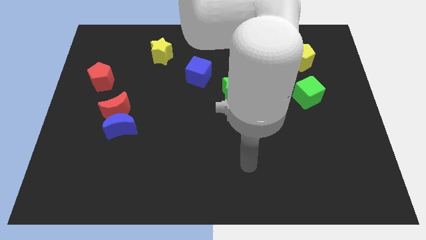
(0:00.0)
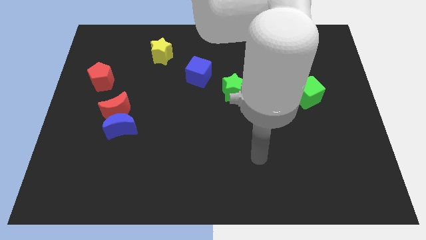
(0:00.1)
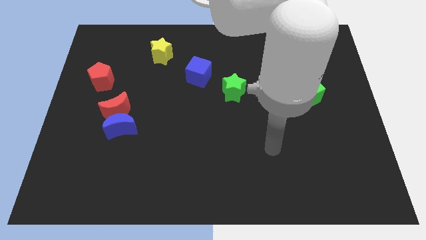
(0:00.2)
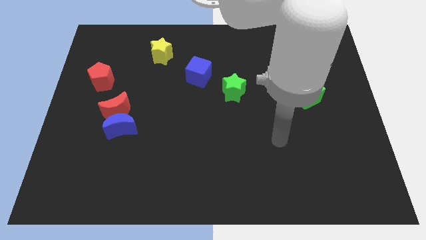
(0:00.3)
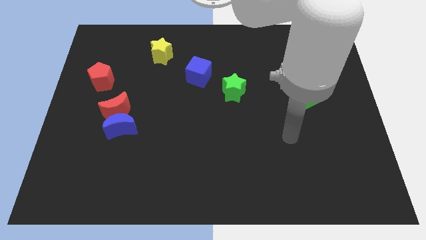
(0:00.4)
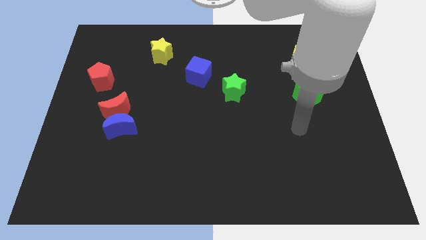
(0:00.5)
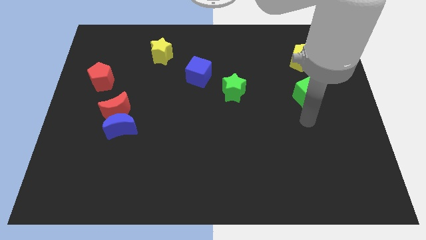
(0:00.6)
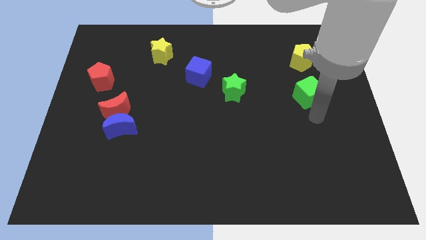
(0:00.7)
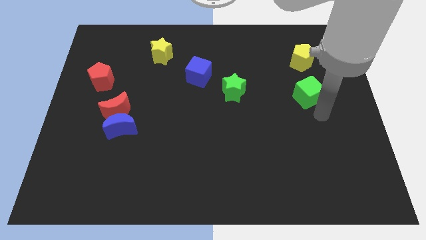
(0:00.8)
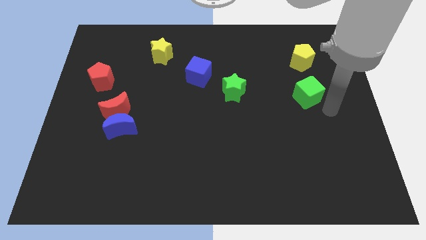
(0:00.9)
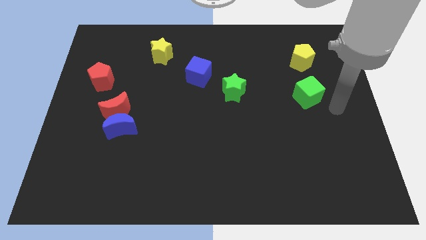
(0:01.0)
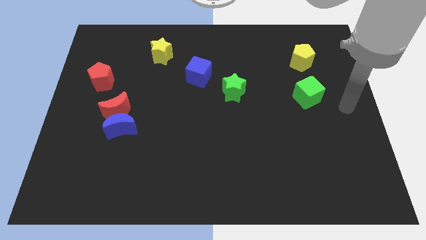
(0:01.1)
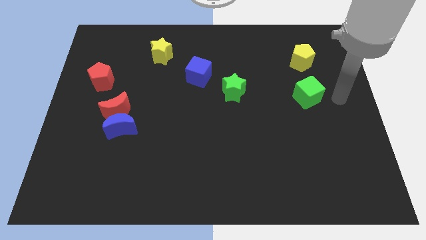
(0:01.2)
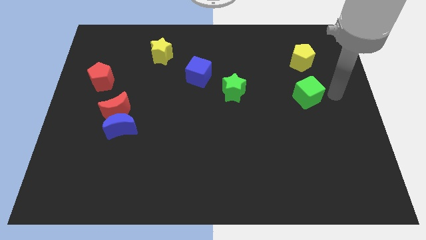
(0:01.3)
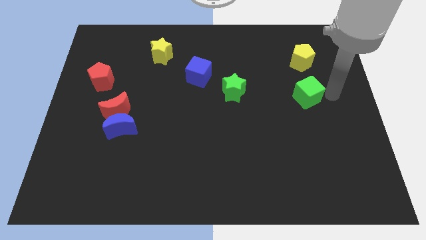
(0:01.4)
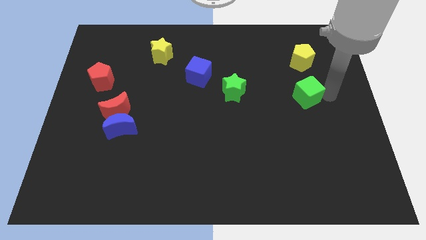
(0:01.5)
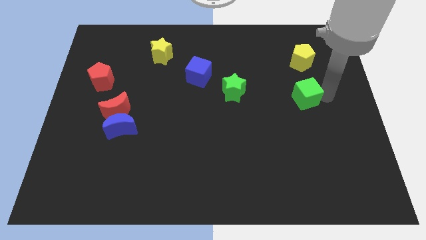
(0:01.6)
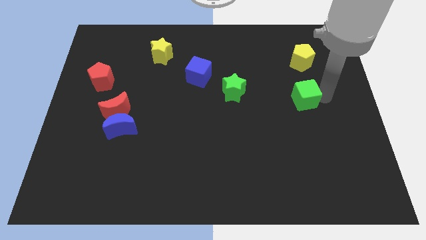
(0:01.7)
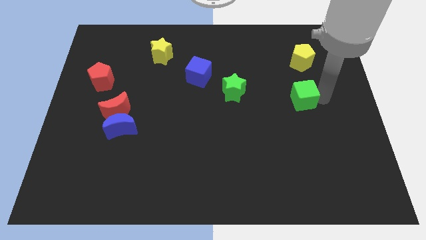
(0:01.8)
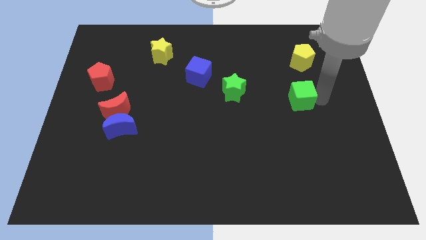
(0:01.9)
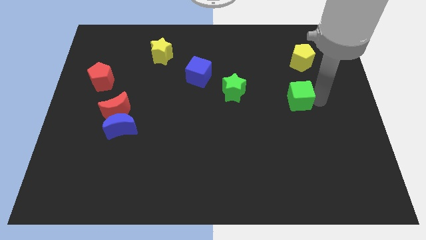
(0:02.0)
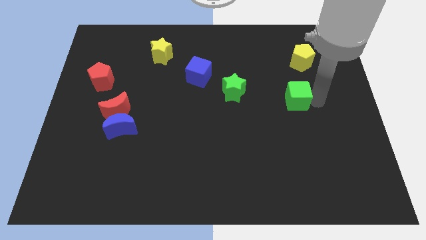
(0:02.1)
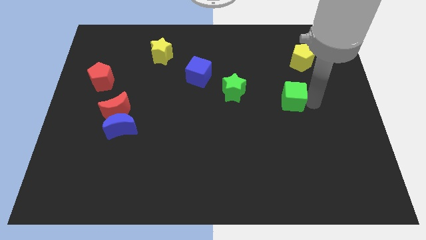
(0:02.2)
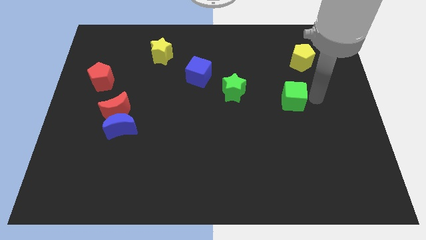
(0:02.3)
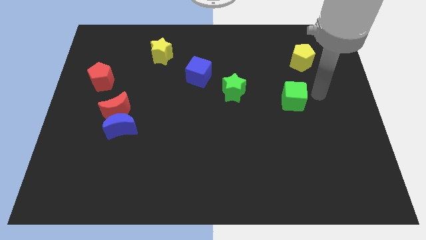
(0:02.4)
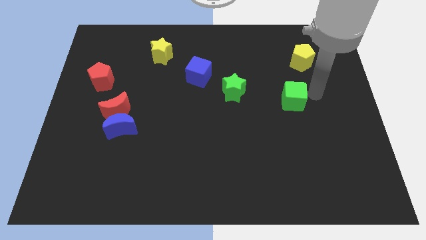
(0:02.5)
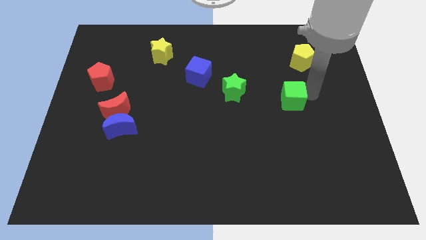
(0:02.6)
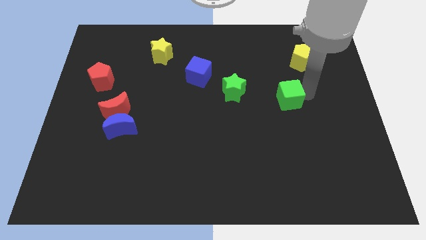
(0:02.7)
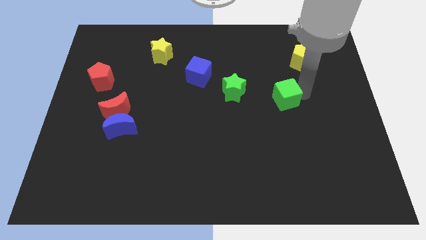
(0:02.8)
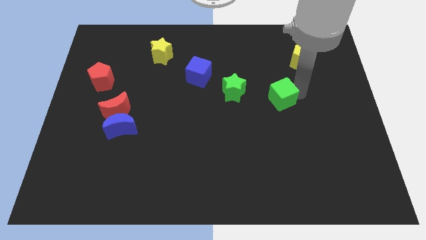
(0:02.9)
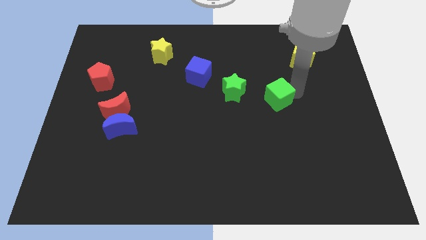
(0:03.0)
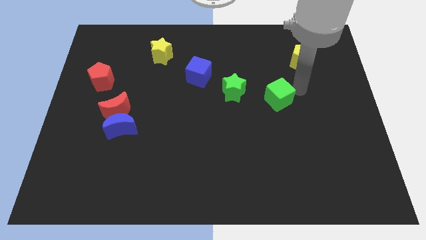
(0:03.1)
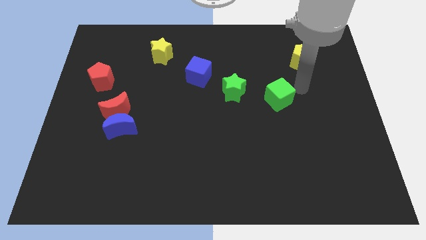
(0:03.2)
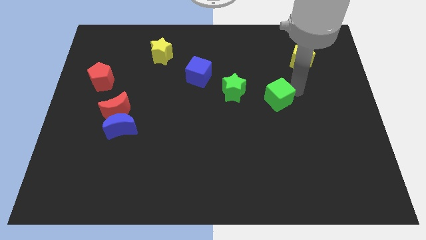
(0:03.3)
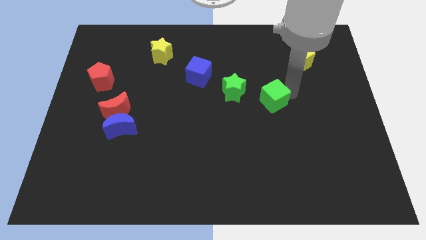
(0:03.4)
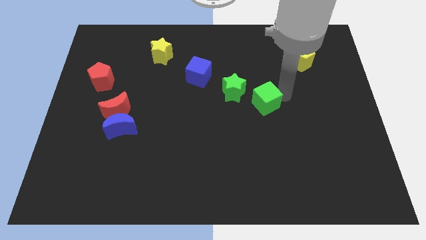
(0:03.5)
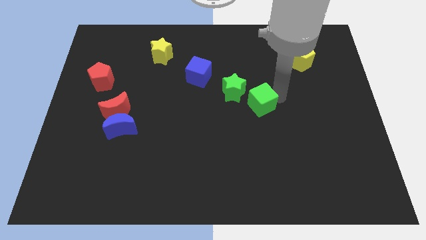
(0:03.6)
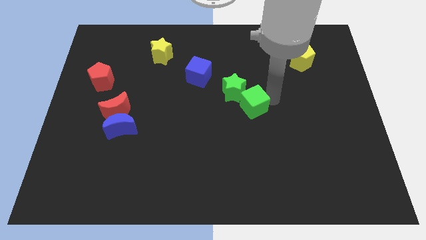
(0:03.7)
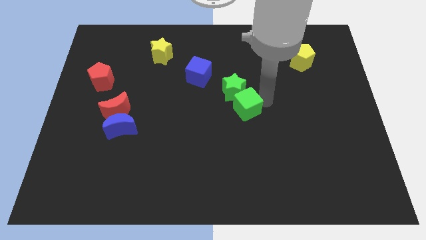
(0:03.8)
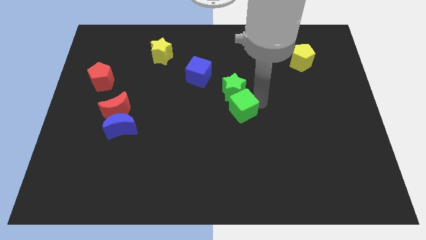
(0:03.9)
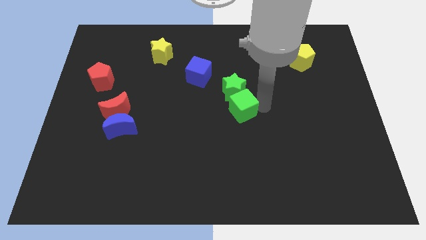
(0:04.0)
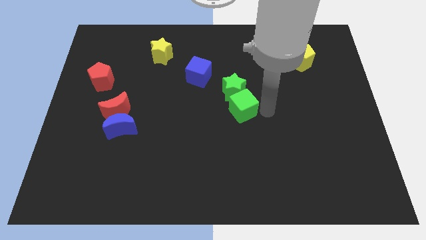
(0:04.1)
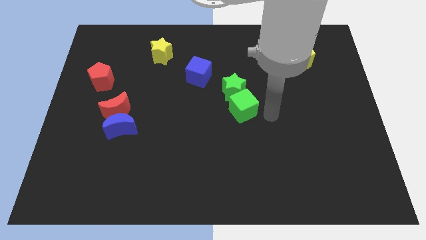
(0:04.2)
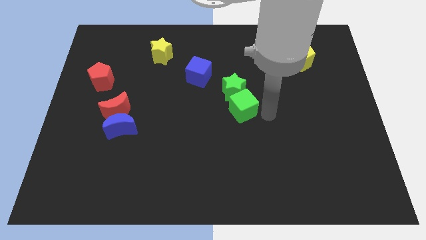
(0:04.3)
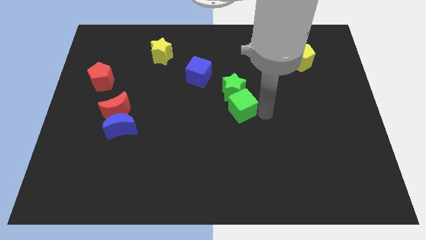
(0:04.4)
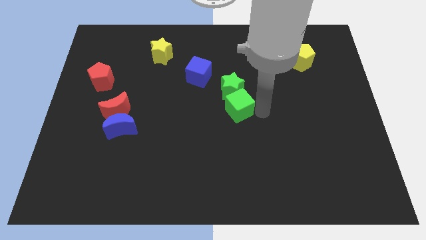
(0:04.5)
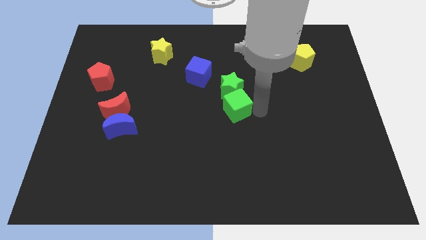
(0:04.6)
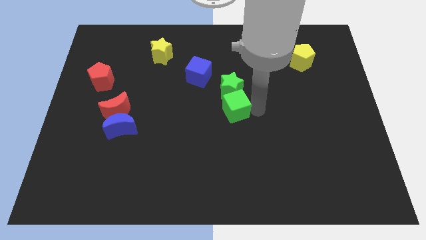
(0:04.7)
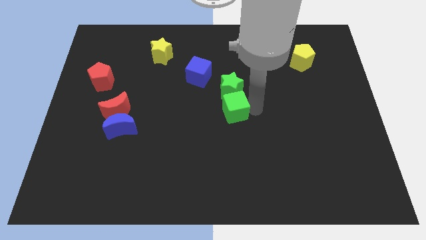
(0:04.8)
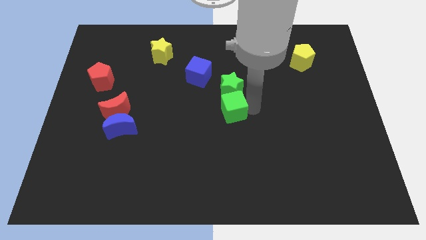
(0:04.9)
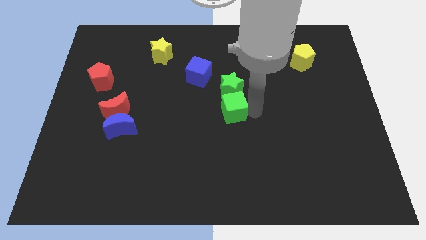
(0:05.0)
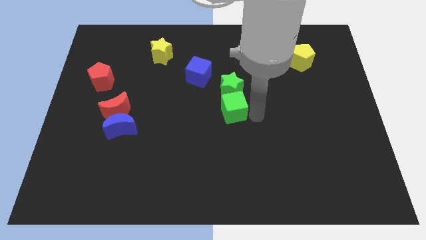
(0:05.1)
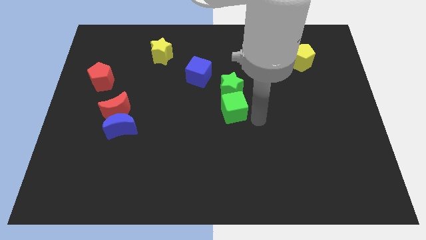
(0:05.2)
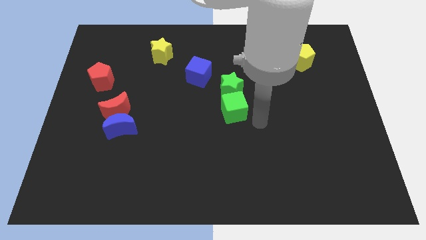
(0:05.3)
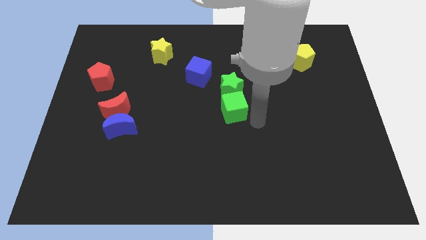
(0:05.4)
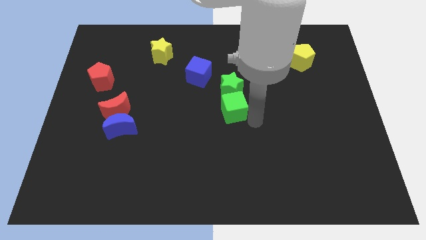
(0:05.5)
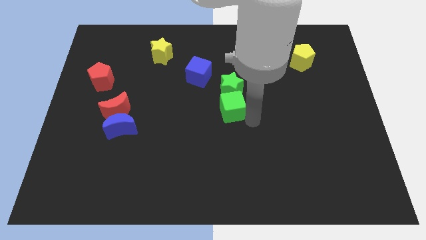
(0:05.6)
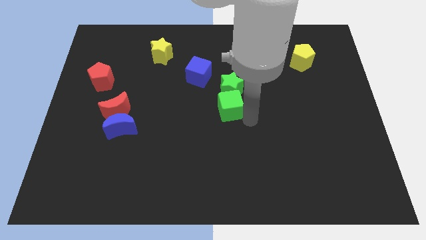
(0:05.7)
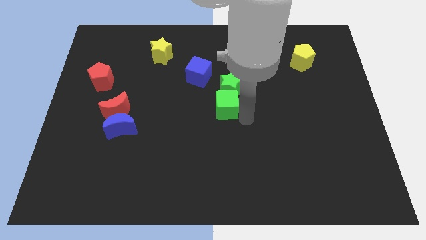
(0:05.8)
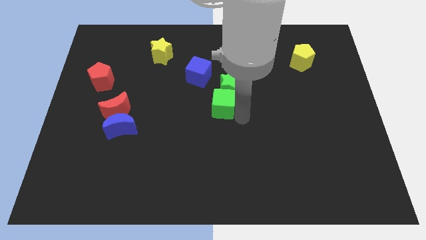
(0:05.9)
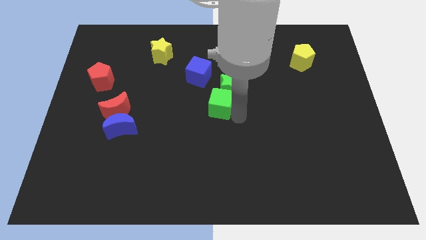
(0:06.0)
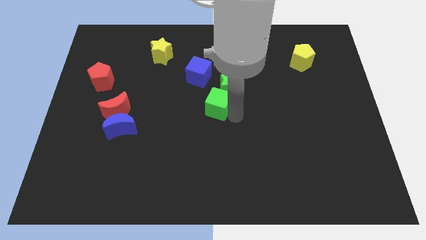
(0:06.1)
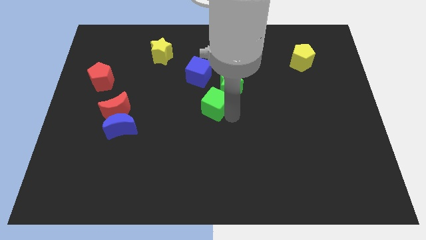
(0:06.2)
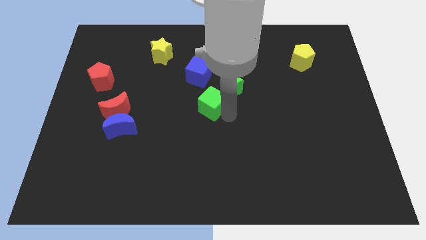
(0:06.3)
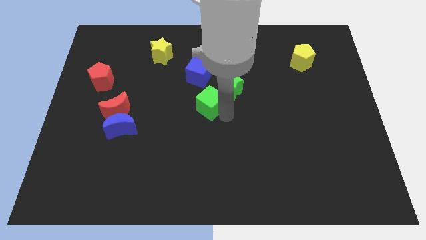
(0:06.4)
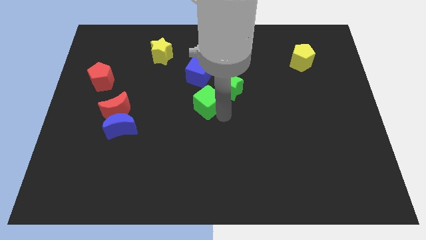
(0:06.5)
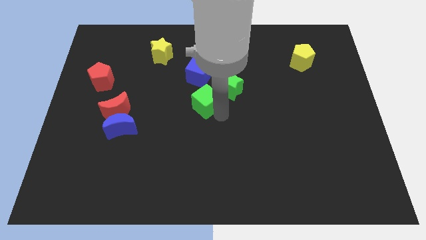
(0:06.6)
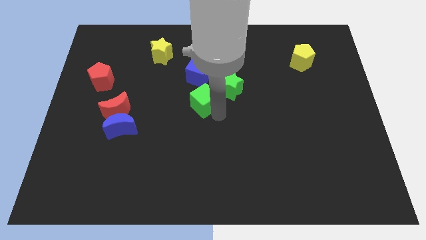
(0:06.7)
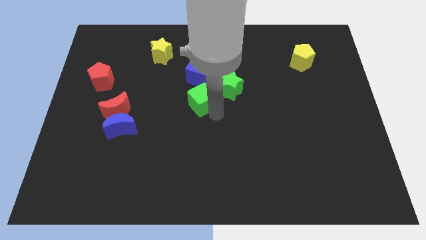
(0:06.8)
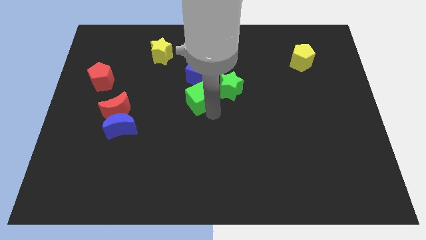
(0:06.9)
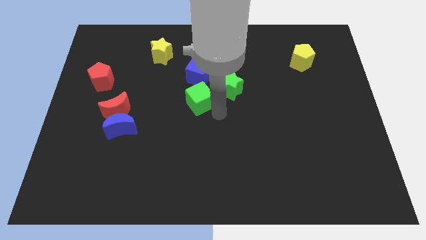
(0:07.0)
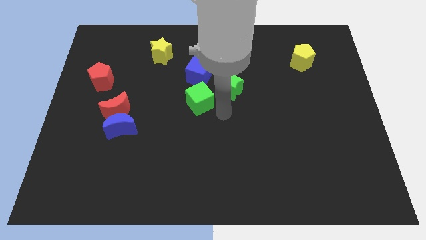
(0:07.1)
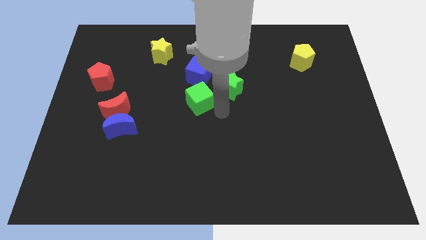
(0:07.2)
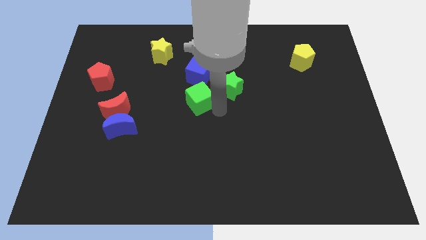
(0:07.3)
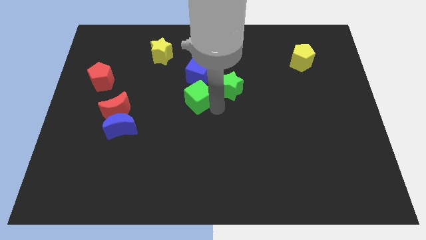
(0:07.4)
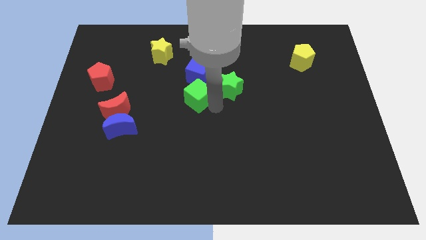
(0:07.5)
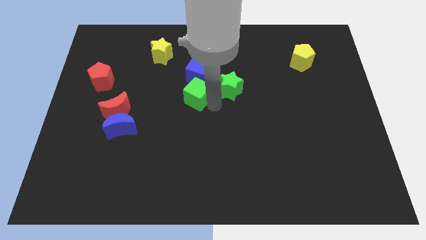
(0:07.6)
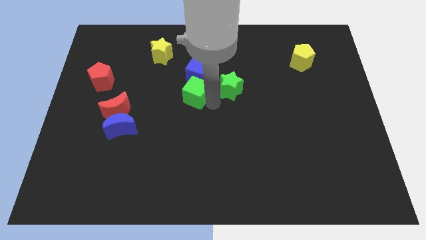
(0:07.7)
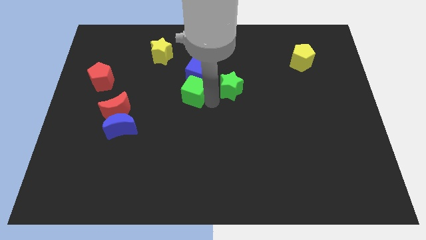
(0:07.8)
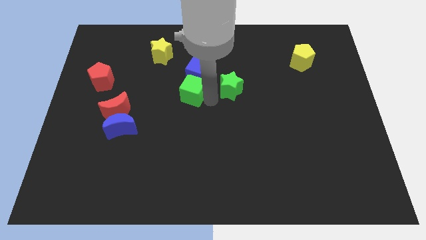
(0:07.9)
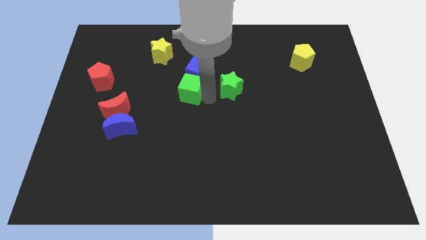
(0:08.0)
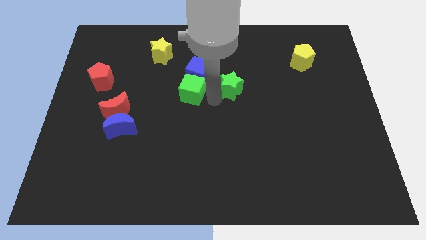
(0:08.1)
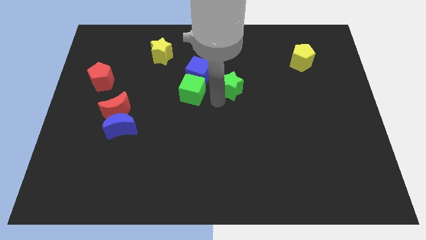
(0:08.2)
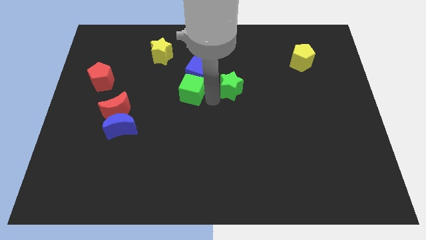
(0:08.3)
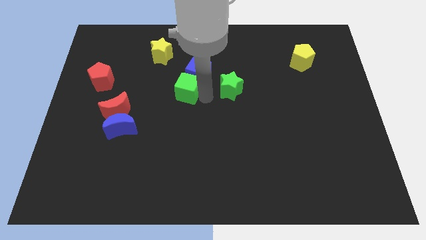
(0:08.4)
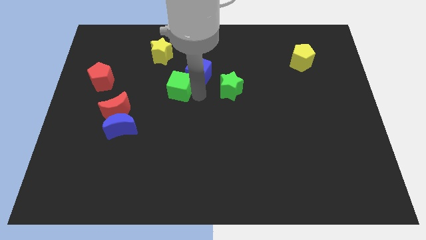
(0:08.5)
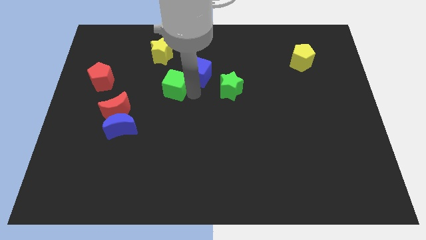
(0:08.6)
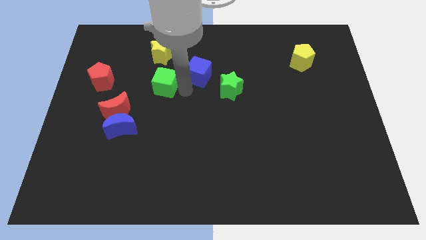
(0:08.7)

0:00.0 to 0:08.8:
put the green cube to the right side of the red pentagon
